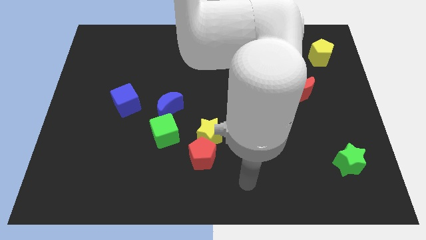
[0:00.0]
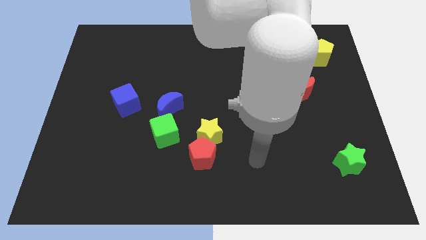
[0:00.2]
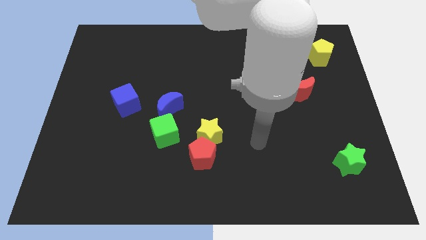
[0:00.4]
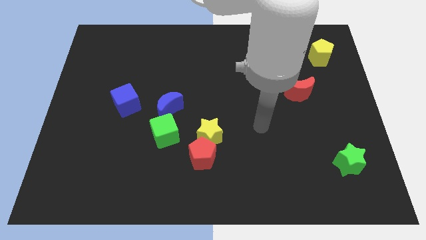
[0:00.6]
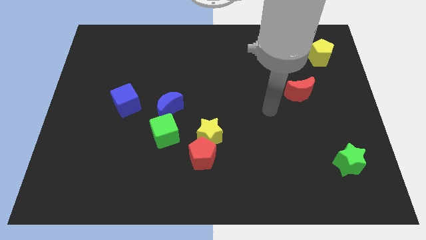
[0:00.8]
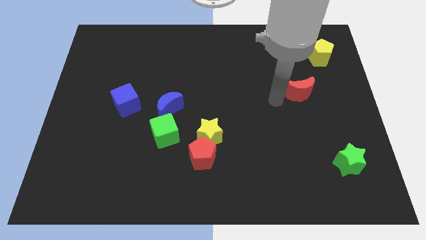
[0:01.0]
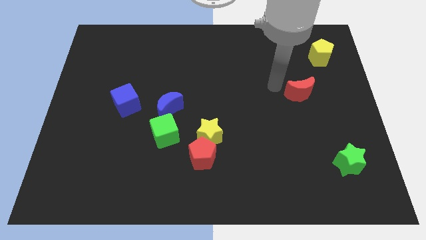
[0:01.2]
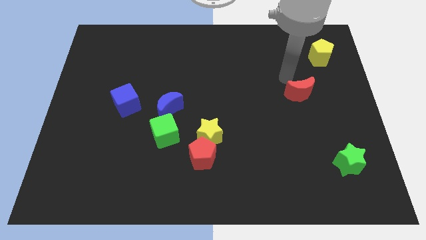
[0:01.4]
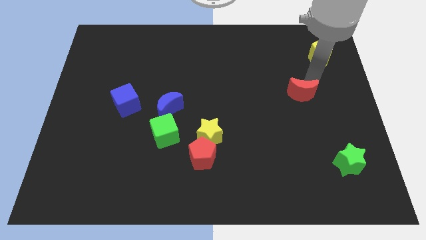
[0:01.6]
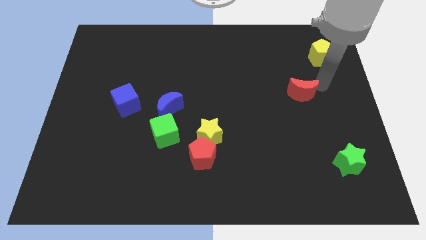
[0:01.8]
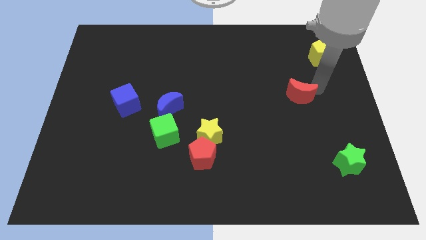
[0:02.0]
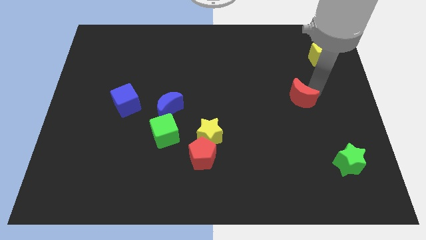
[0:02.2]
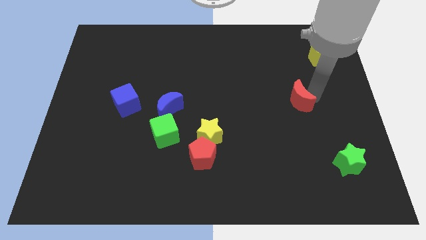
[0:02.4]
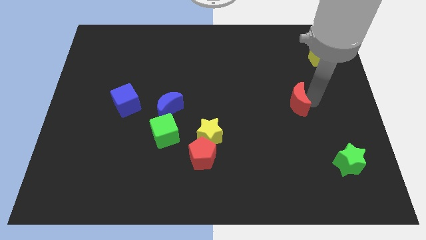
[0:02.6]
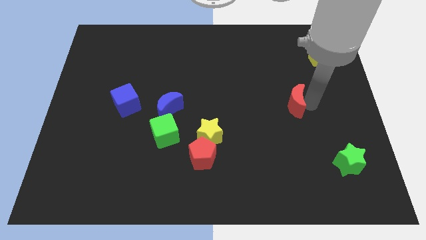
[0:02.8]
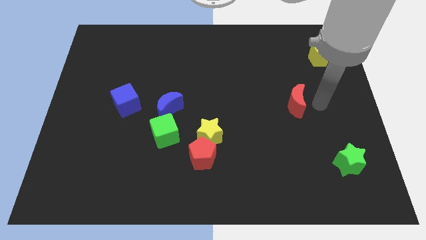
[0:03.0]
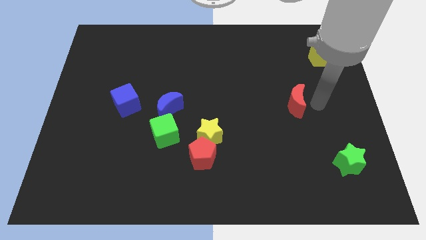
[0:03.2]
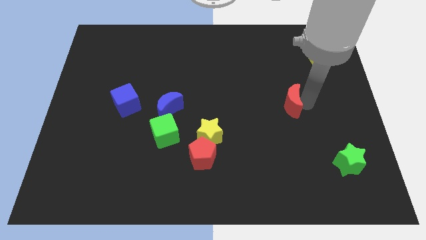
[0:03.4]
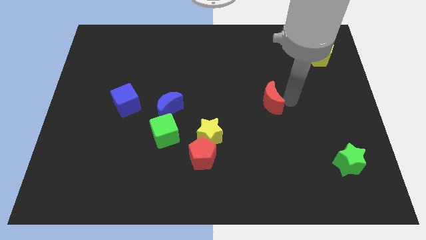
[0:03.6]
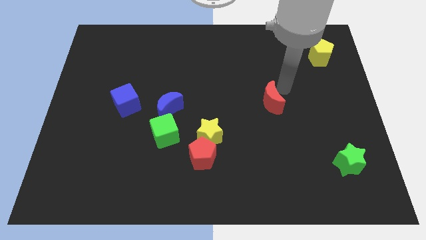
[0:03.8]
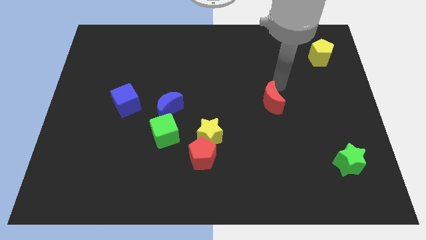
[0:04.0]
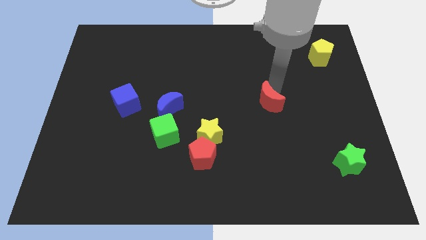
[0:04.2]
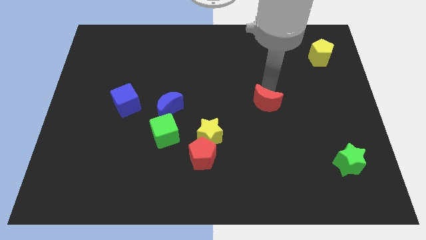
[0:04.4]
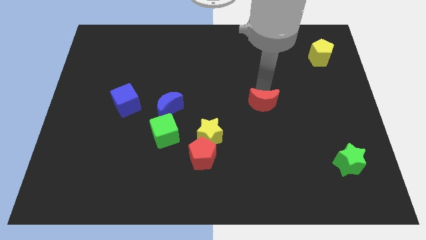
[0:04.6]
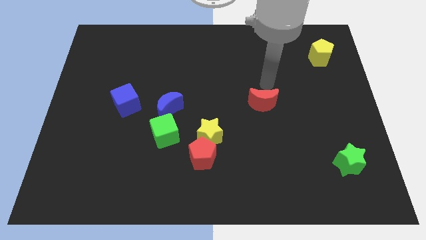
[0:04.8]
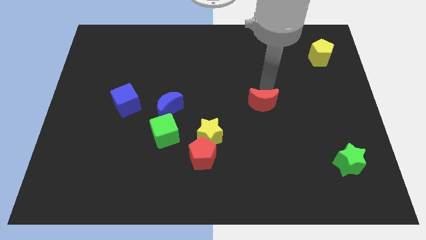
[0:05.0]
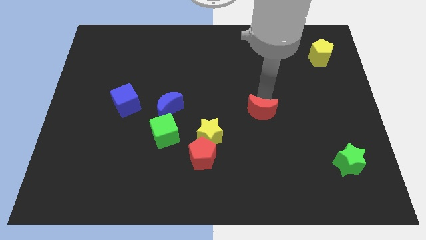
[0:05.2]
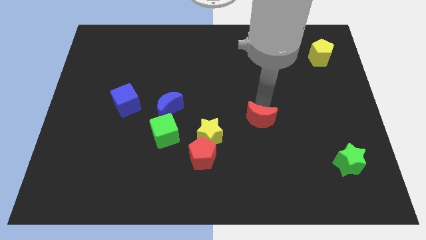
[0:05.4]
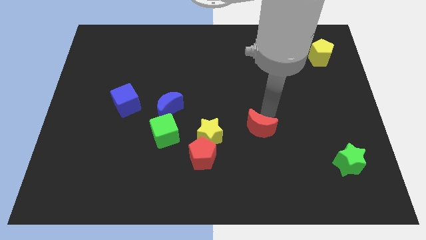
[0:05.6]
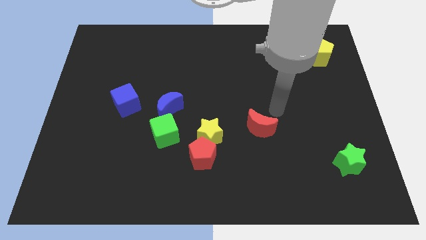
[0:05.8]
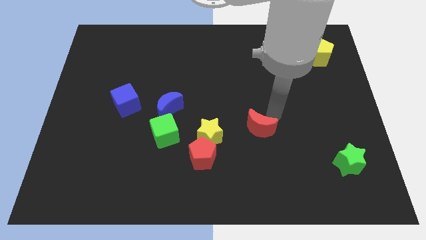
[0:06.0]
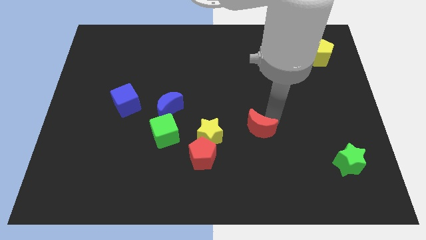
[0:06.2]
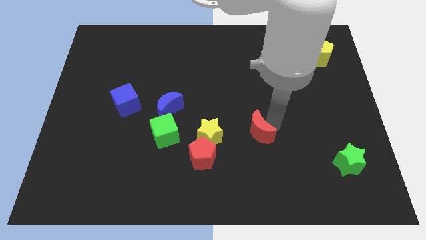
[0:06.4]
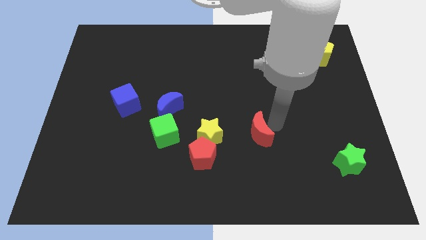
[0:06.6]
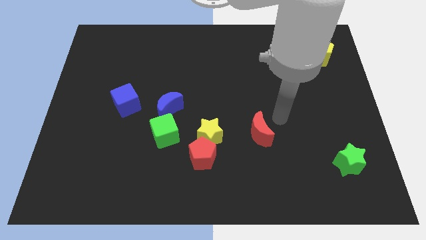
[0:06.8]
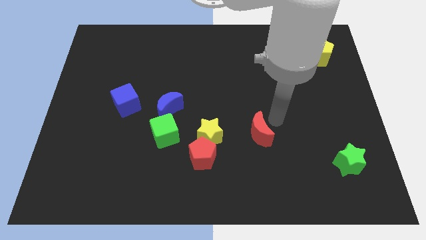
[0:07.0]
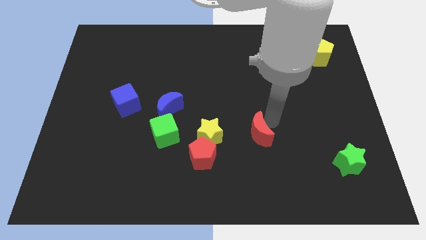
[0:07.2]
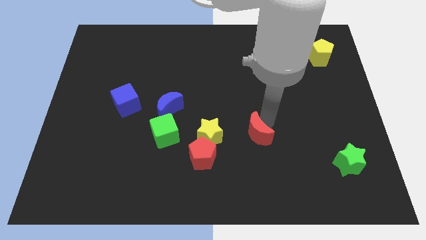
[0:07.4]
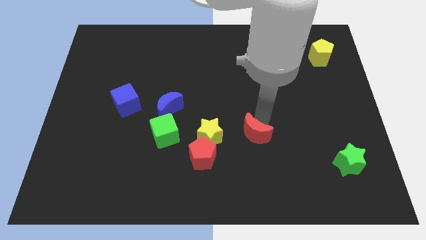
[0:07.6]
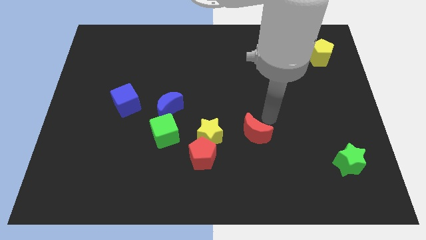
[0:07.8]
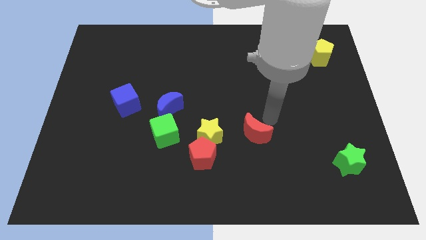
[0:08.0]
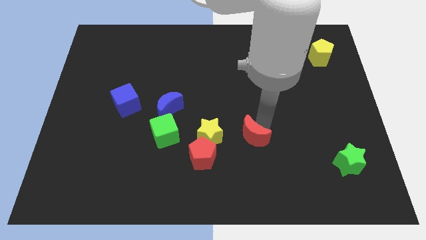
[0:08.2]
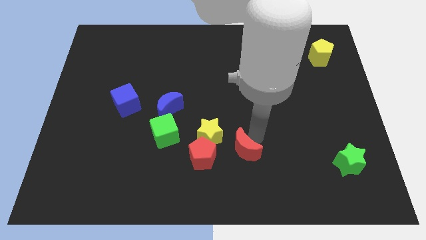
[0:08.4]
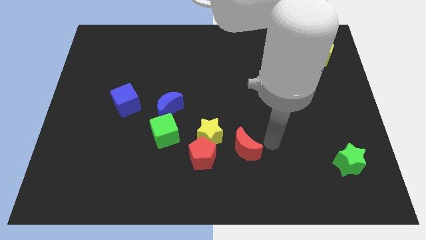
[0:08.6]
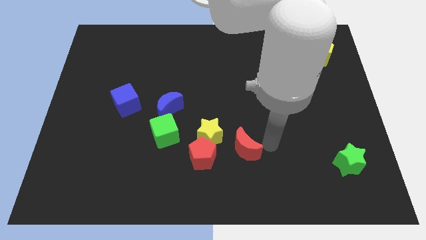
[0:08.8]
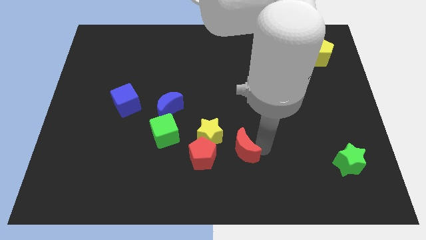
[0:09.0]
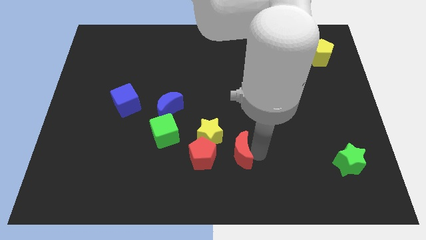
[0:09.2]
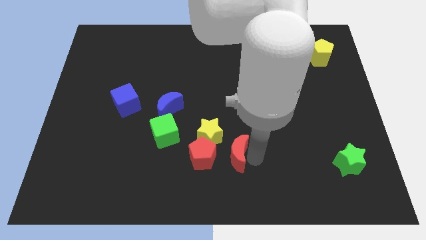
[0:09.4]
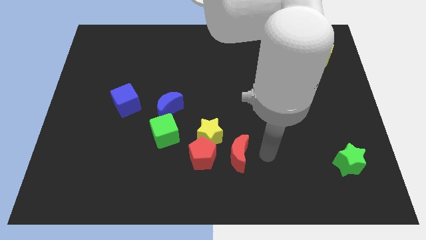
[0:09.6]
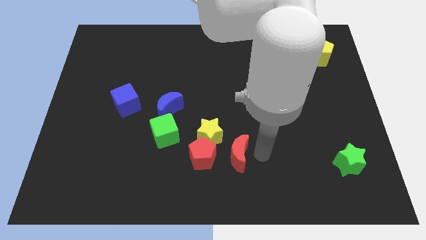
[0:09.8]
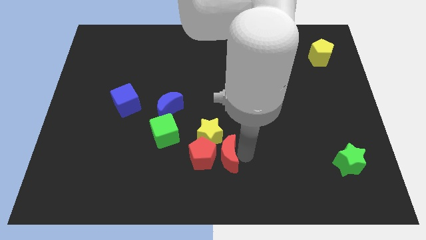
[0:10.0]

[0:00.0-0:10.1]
slide the red moon next to the red pentagon
